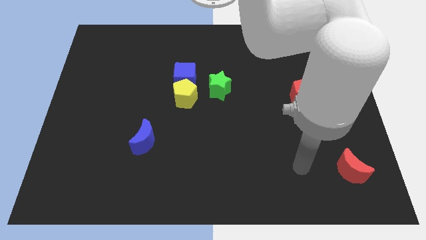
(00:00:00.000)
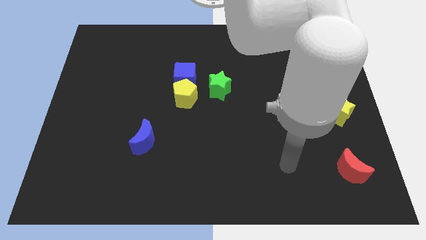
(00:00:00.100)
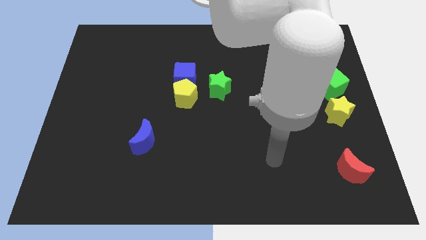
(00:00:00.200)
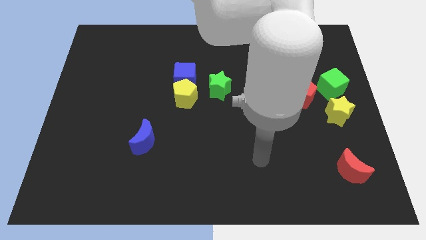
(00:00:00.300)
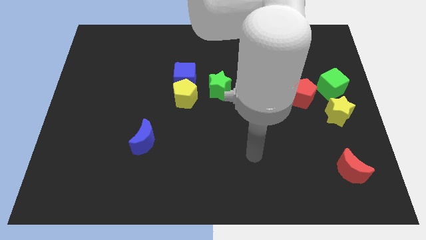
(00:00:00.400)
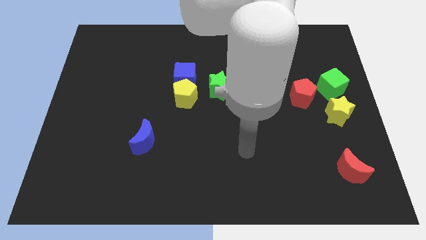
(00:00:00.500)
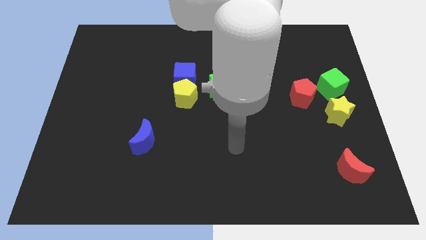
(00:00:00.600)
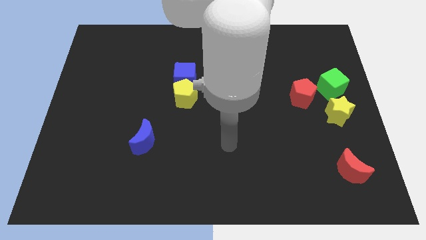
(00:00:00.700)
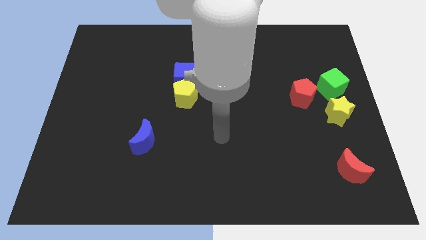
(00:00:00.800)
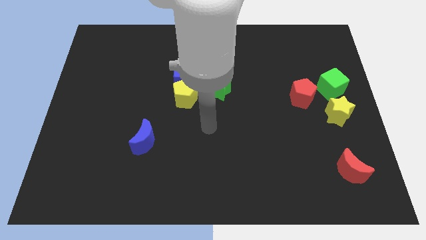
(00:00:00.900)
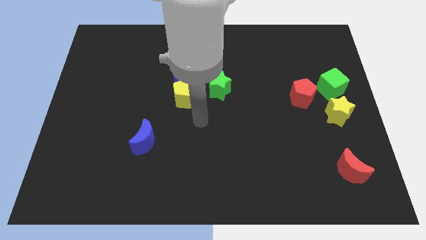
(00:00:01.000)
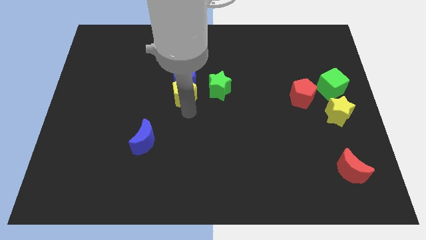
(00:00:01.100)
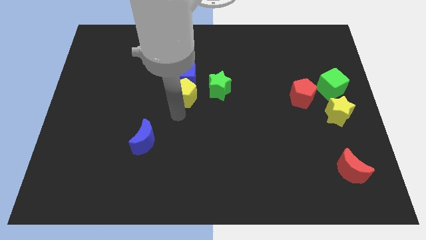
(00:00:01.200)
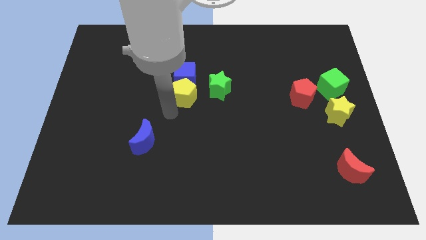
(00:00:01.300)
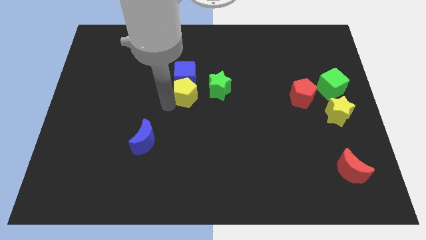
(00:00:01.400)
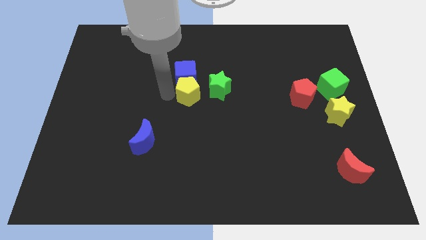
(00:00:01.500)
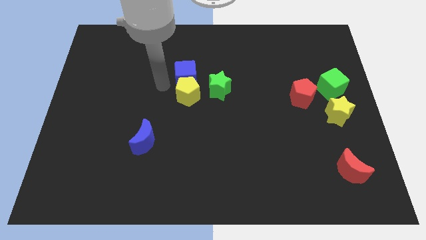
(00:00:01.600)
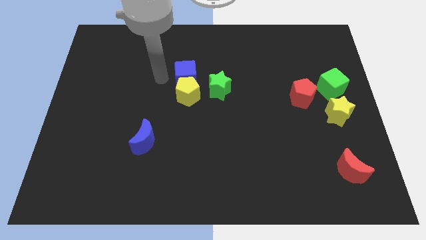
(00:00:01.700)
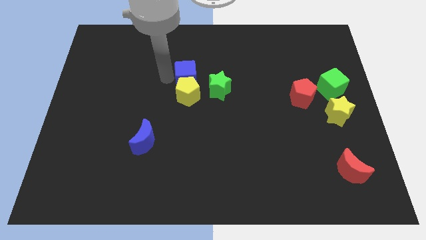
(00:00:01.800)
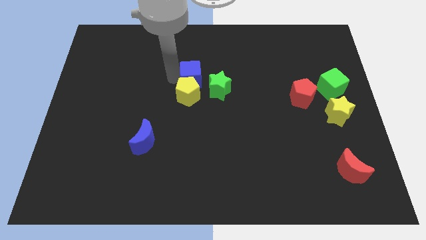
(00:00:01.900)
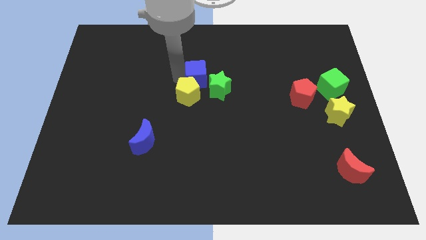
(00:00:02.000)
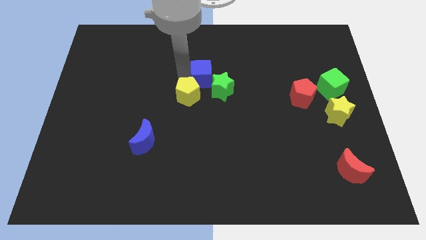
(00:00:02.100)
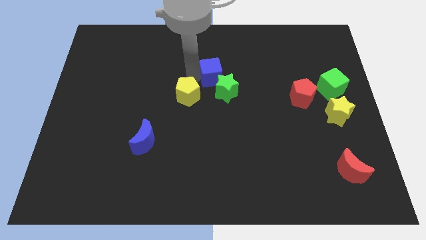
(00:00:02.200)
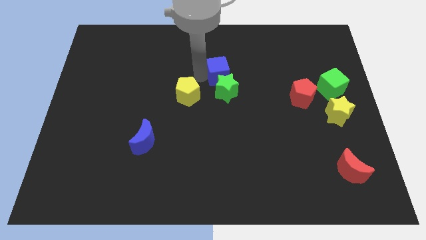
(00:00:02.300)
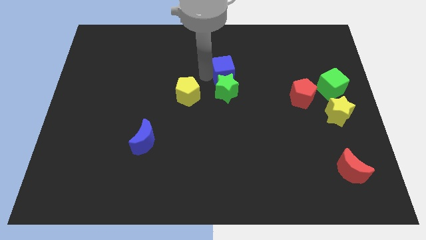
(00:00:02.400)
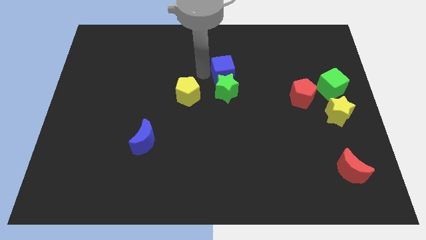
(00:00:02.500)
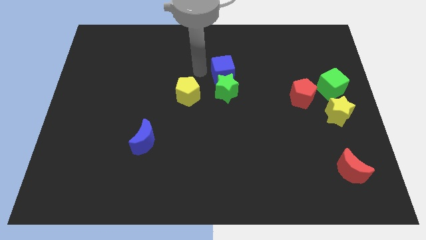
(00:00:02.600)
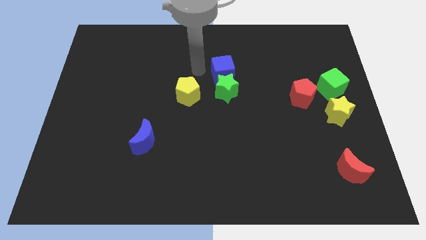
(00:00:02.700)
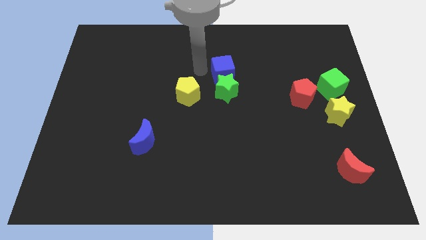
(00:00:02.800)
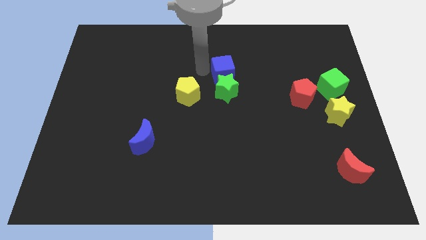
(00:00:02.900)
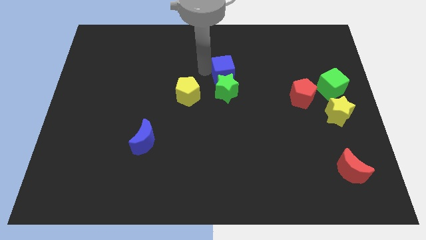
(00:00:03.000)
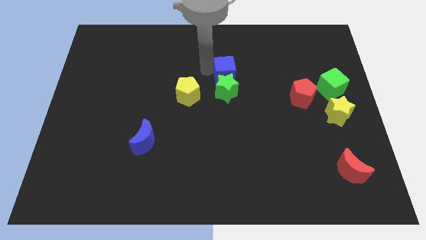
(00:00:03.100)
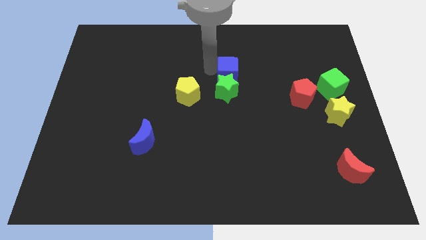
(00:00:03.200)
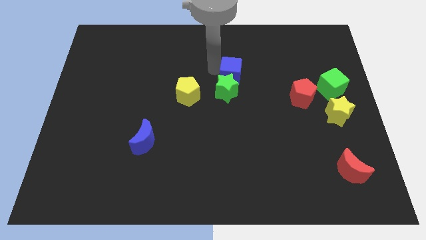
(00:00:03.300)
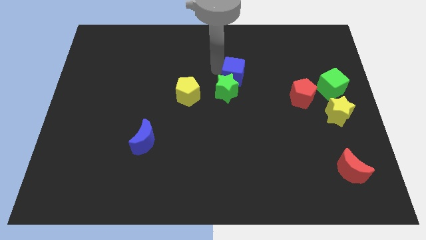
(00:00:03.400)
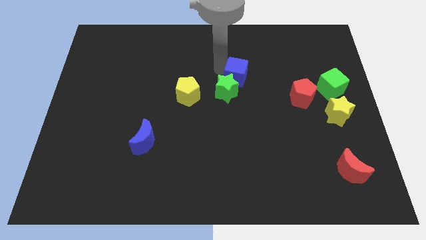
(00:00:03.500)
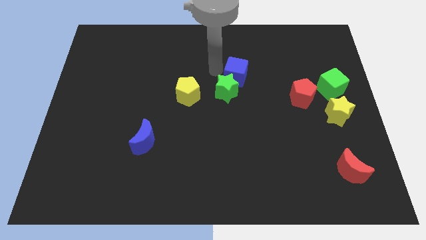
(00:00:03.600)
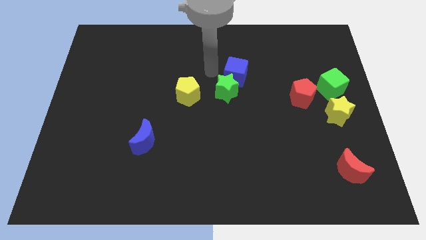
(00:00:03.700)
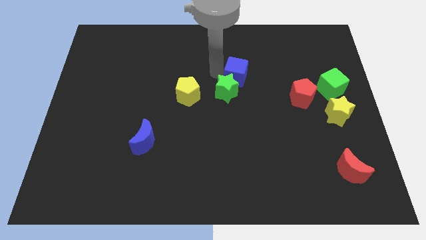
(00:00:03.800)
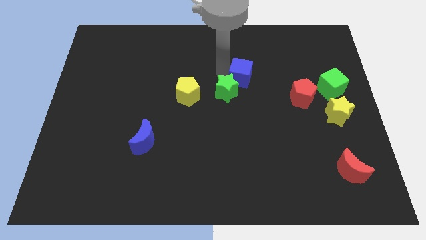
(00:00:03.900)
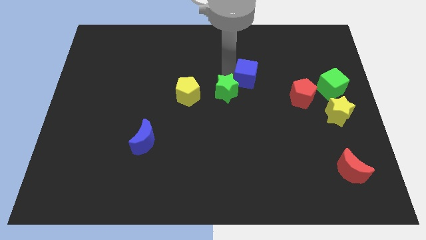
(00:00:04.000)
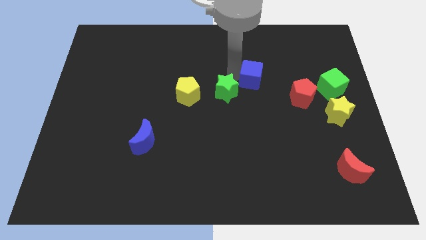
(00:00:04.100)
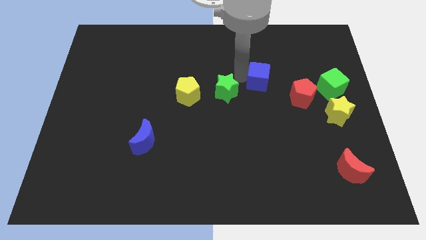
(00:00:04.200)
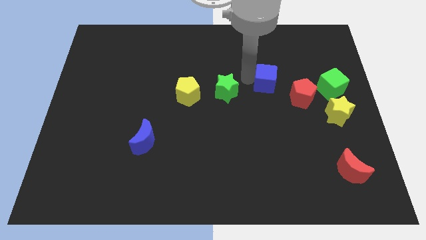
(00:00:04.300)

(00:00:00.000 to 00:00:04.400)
move the blue cube right

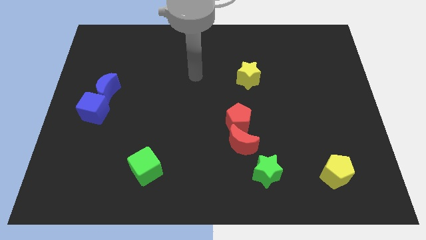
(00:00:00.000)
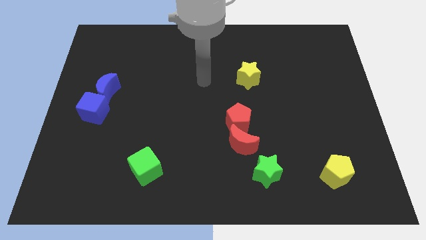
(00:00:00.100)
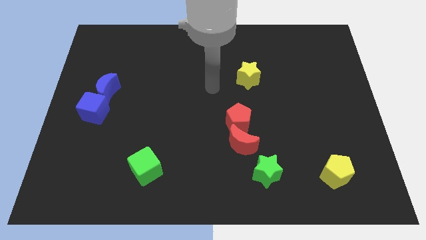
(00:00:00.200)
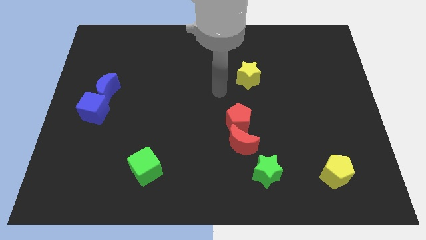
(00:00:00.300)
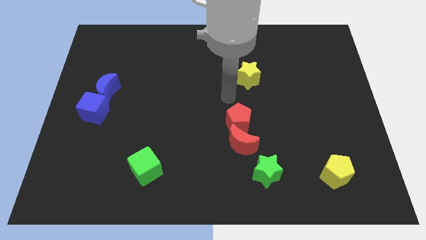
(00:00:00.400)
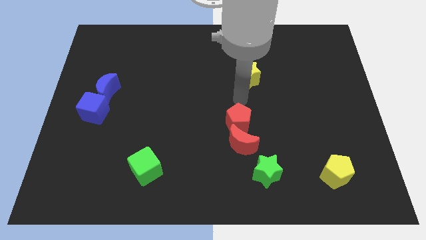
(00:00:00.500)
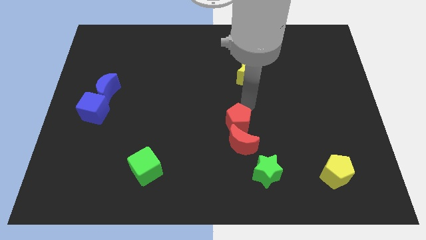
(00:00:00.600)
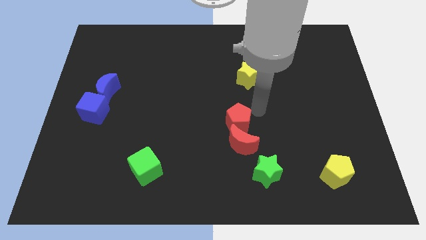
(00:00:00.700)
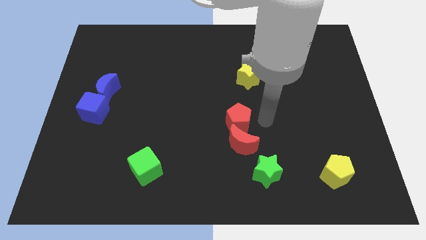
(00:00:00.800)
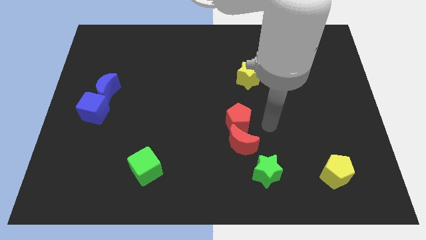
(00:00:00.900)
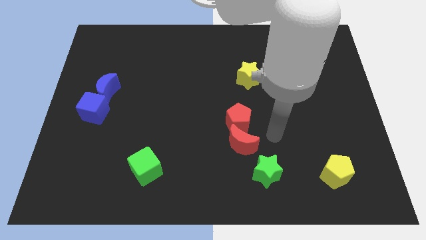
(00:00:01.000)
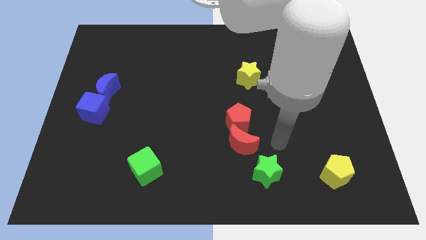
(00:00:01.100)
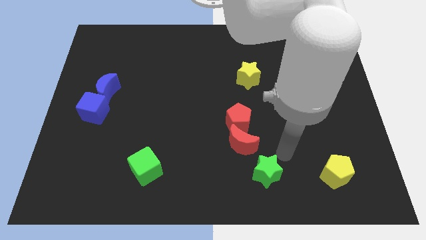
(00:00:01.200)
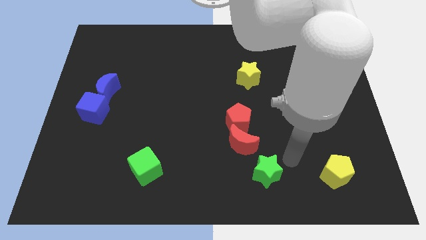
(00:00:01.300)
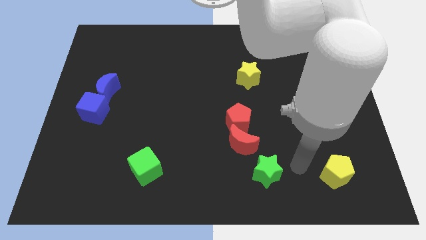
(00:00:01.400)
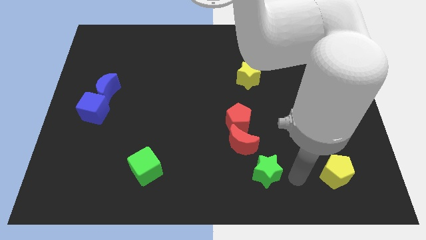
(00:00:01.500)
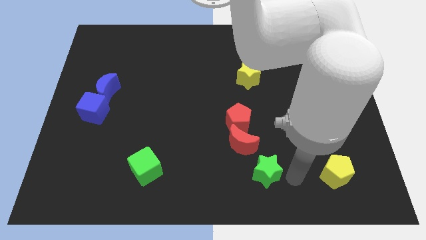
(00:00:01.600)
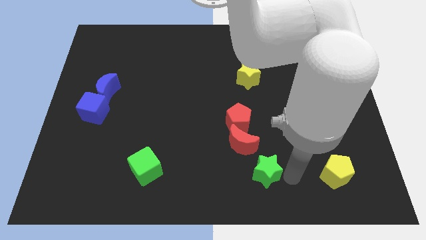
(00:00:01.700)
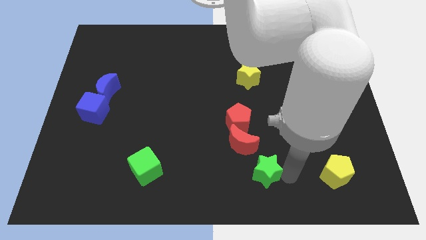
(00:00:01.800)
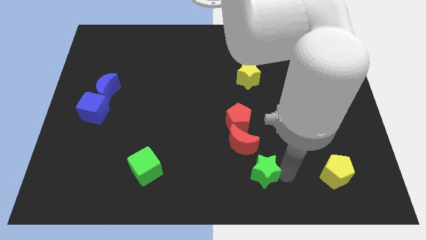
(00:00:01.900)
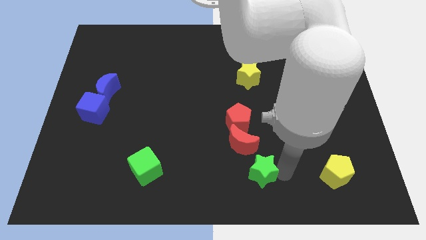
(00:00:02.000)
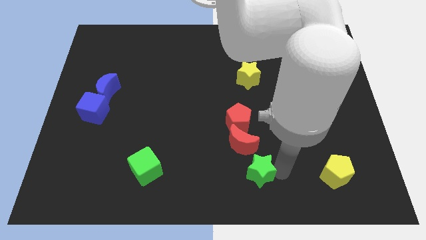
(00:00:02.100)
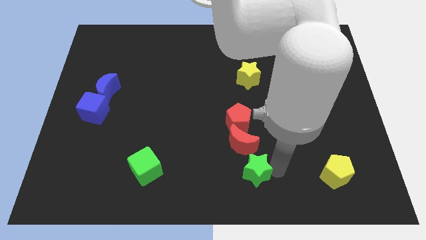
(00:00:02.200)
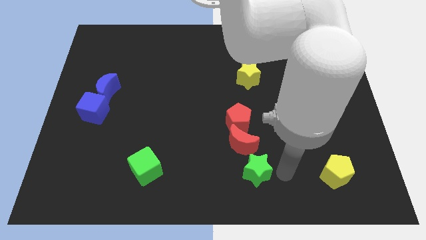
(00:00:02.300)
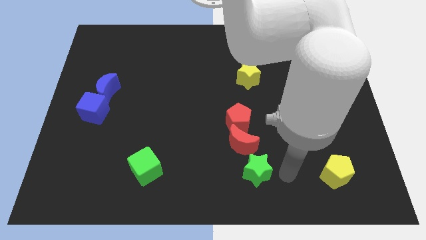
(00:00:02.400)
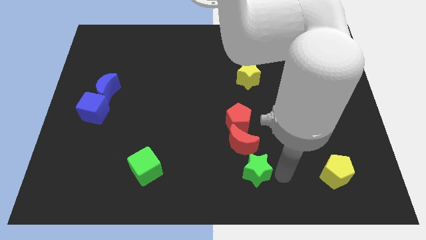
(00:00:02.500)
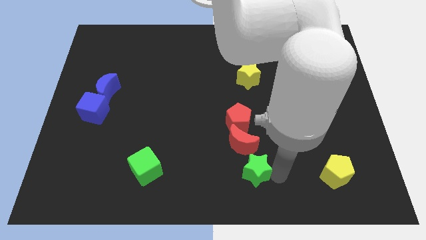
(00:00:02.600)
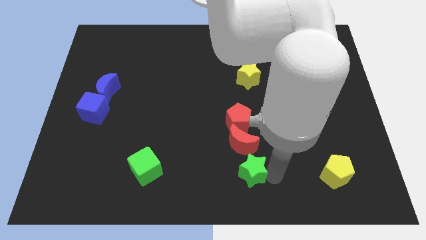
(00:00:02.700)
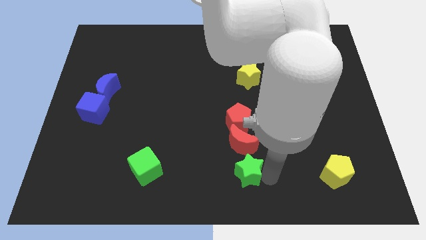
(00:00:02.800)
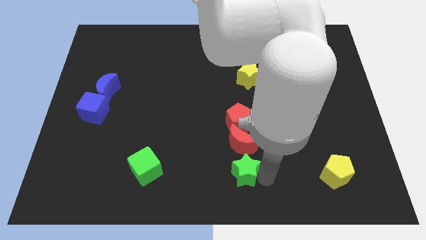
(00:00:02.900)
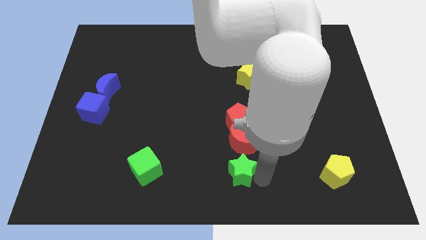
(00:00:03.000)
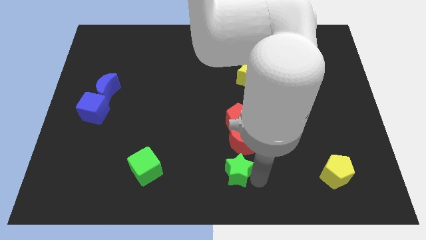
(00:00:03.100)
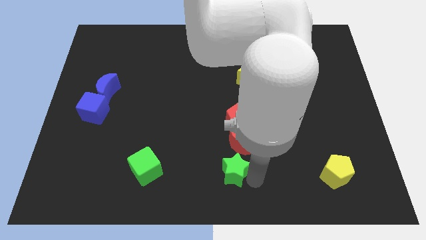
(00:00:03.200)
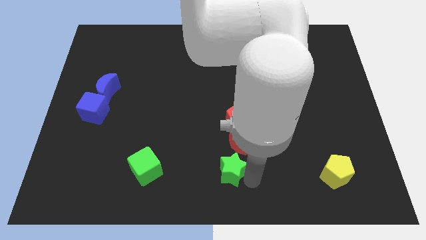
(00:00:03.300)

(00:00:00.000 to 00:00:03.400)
slightly slide the green star left
